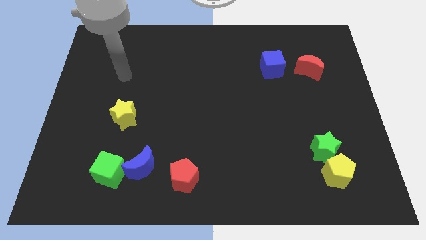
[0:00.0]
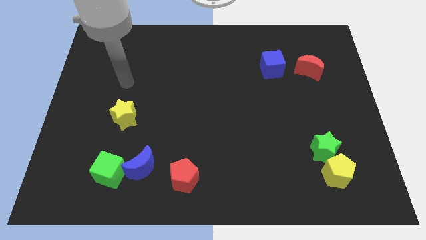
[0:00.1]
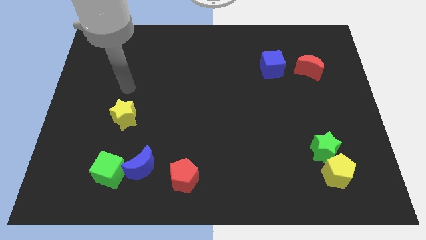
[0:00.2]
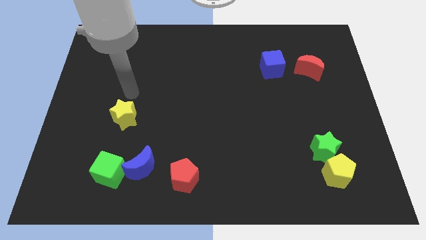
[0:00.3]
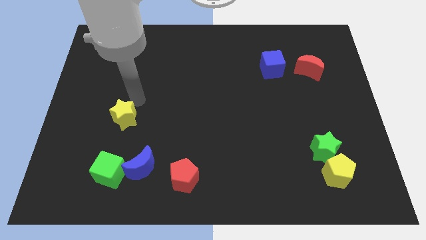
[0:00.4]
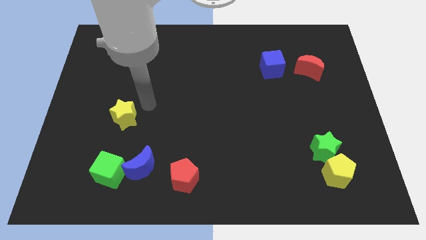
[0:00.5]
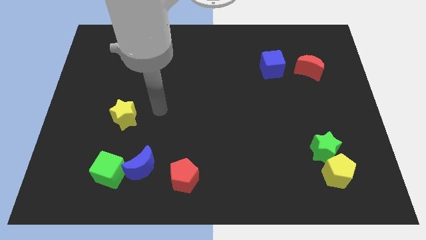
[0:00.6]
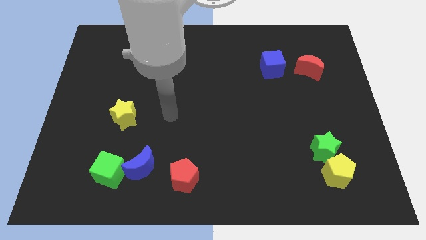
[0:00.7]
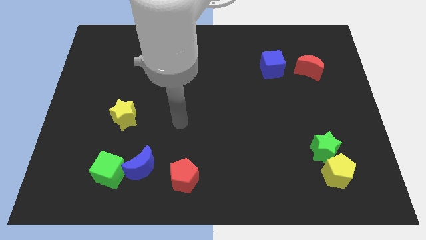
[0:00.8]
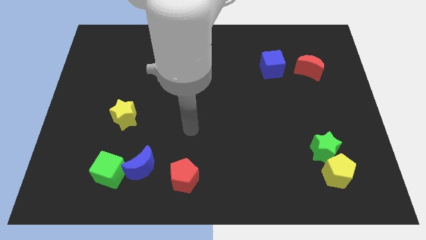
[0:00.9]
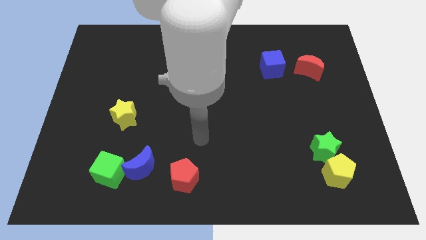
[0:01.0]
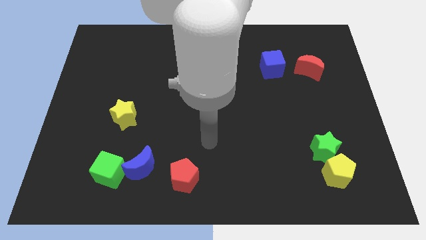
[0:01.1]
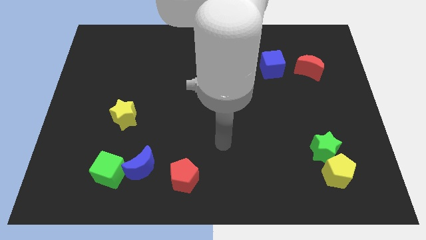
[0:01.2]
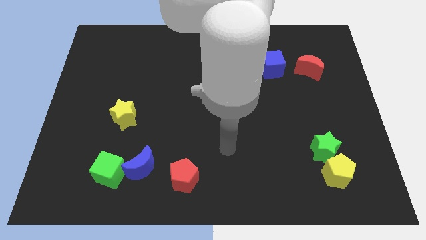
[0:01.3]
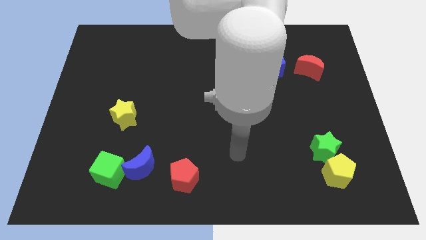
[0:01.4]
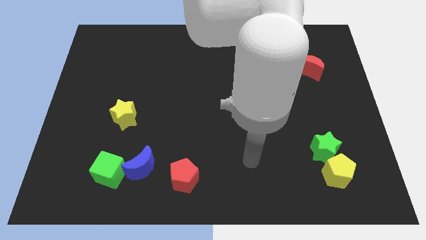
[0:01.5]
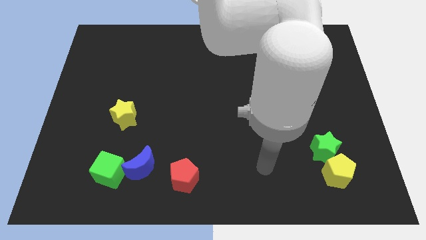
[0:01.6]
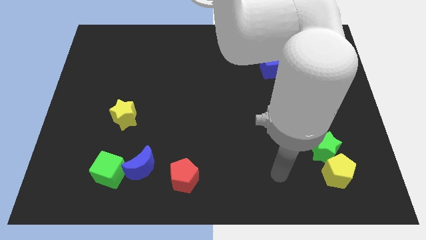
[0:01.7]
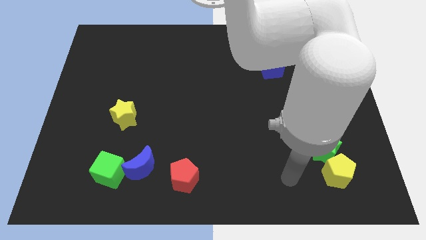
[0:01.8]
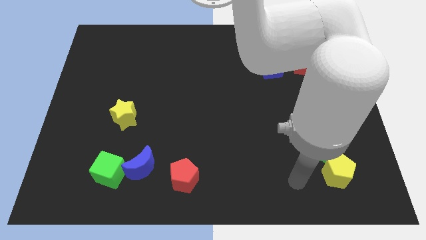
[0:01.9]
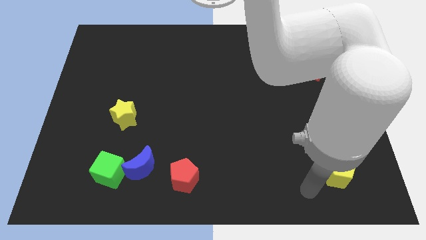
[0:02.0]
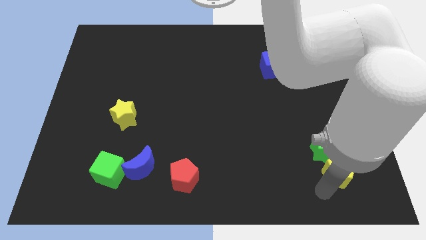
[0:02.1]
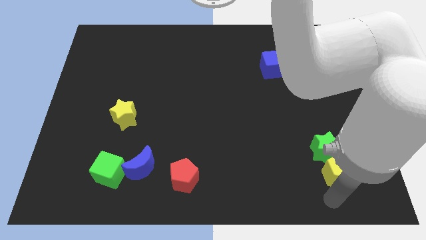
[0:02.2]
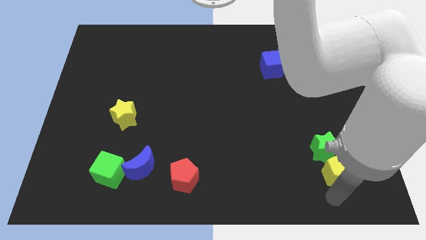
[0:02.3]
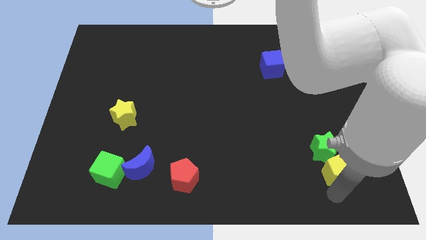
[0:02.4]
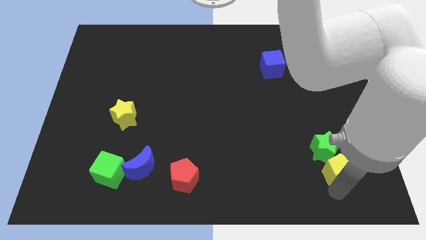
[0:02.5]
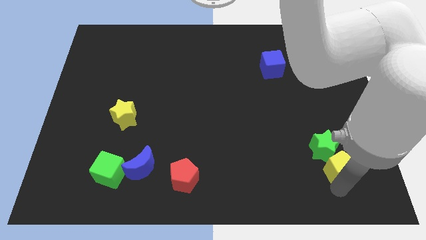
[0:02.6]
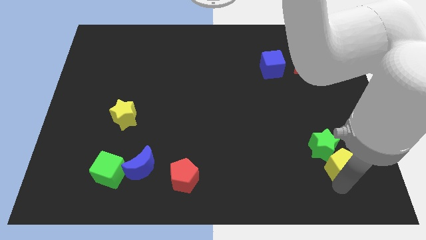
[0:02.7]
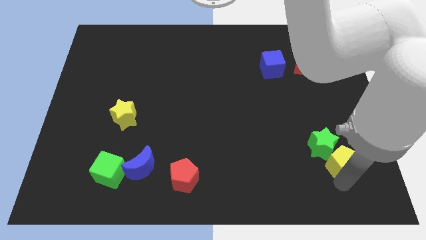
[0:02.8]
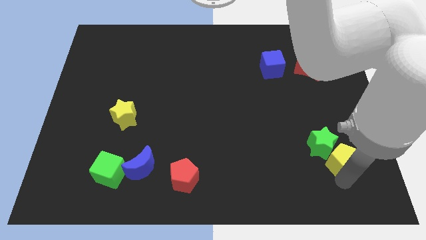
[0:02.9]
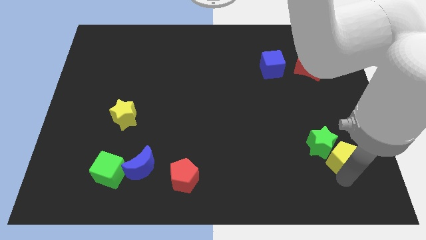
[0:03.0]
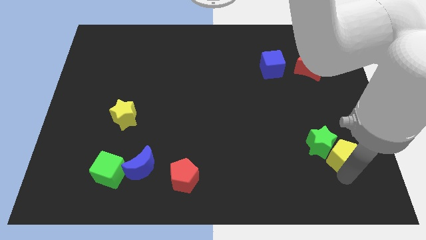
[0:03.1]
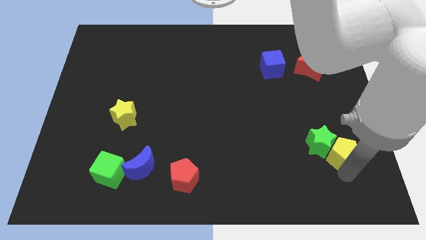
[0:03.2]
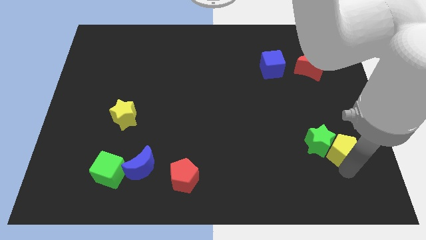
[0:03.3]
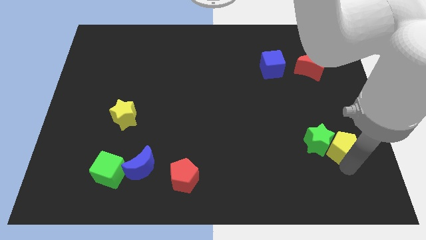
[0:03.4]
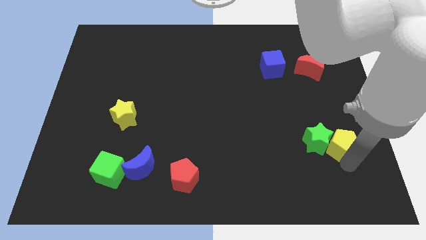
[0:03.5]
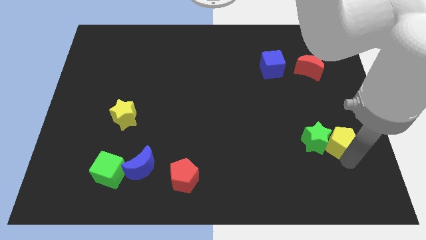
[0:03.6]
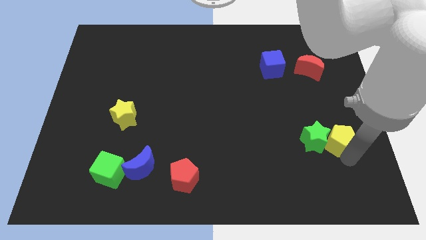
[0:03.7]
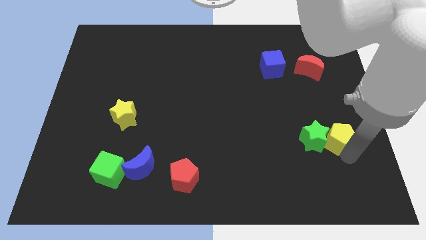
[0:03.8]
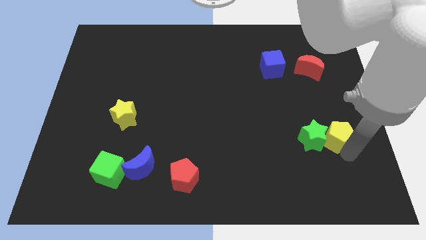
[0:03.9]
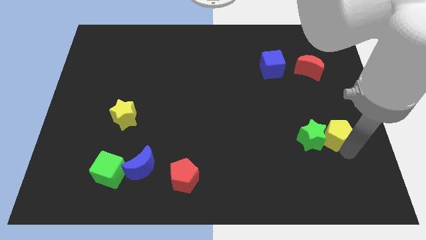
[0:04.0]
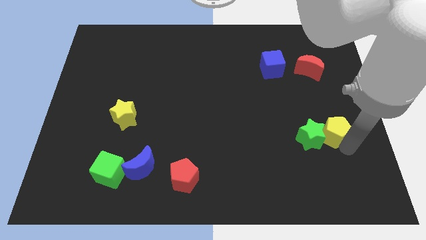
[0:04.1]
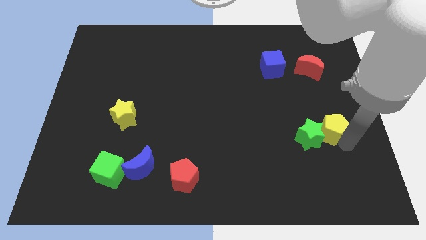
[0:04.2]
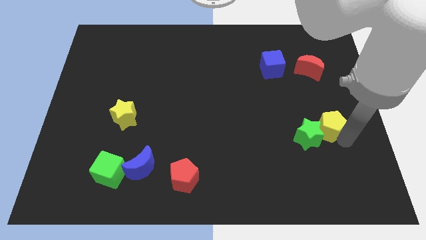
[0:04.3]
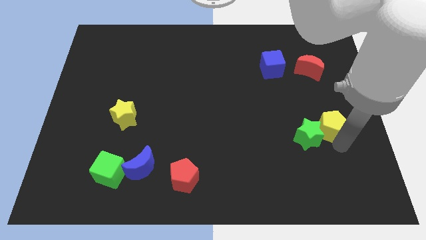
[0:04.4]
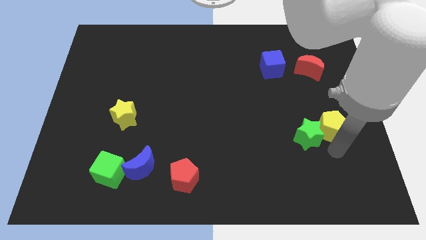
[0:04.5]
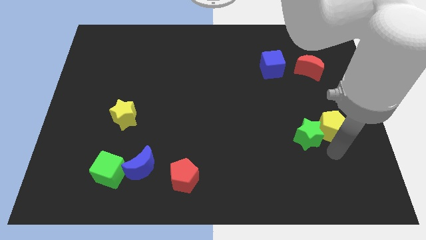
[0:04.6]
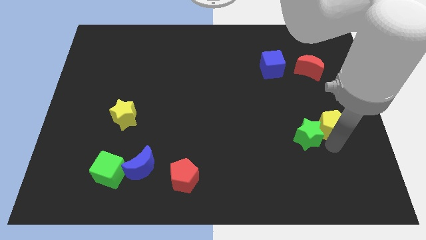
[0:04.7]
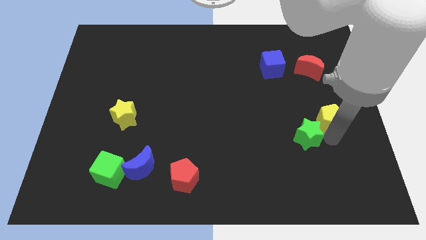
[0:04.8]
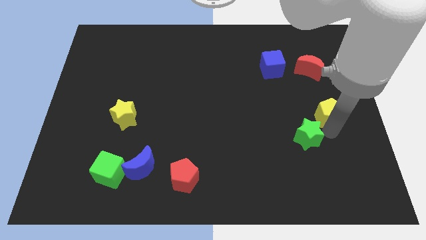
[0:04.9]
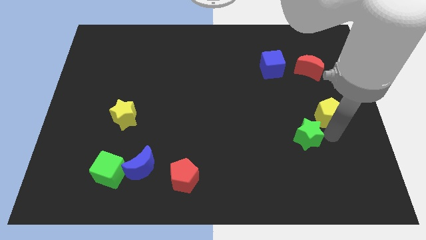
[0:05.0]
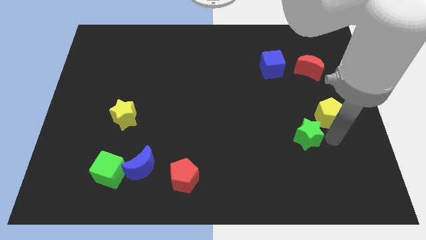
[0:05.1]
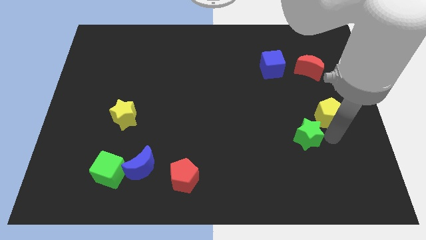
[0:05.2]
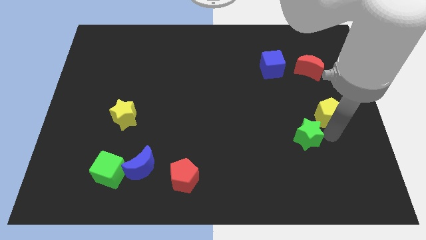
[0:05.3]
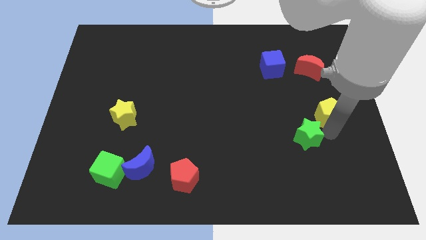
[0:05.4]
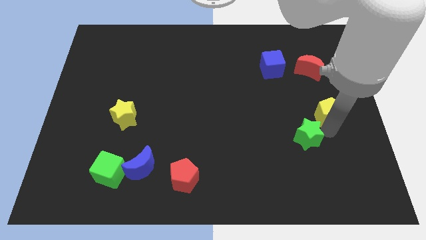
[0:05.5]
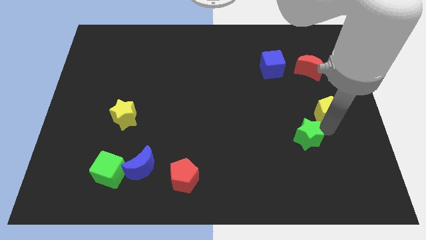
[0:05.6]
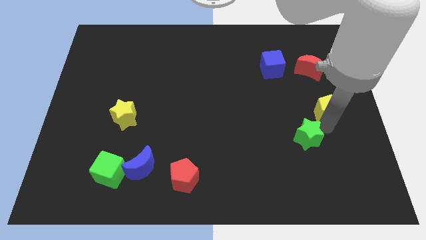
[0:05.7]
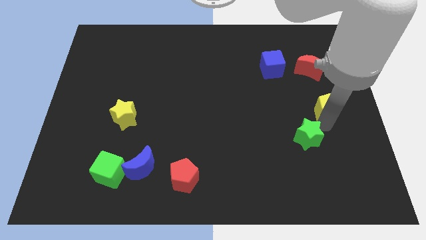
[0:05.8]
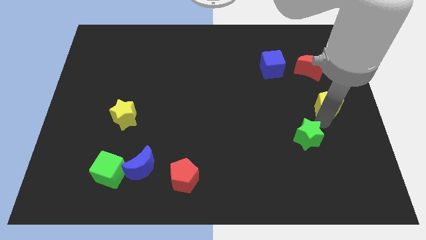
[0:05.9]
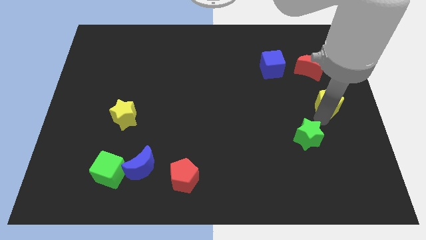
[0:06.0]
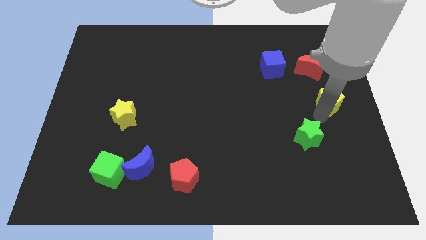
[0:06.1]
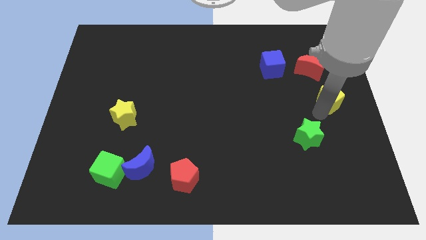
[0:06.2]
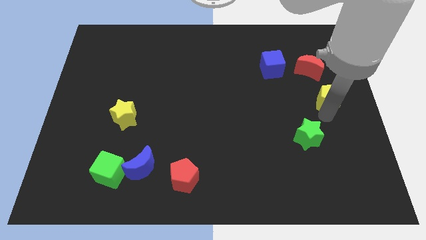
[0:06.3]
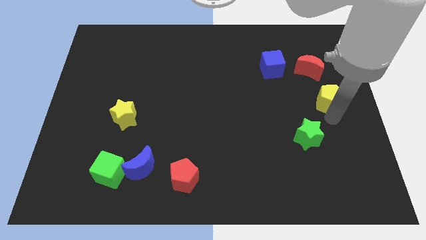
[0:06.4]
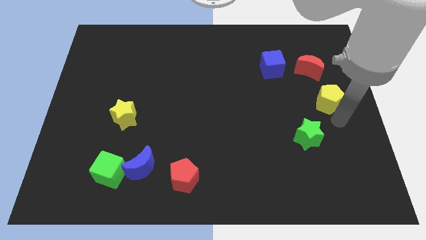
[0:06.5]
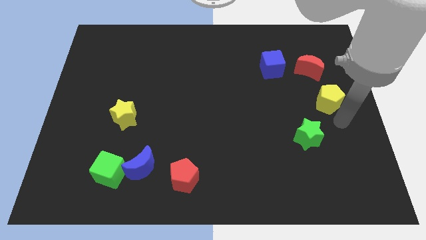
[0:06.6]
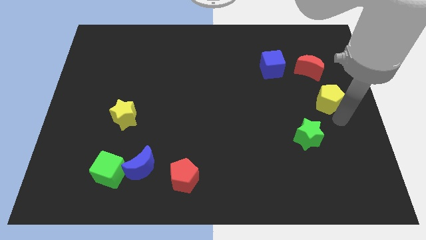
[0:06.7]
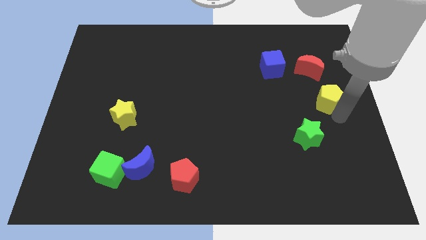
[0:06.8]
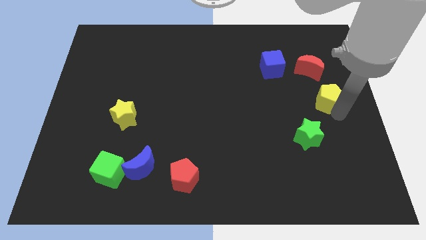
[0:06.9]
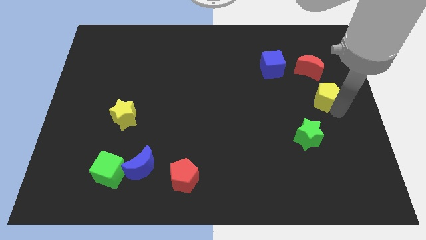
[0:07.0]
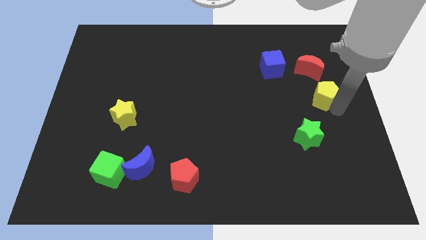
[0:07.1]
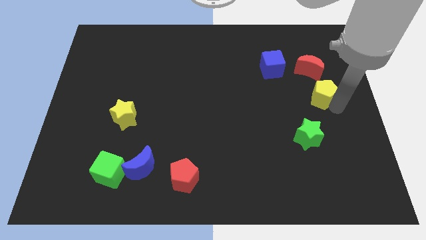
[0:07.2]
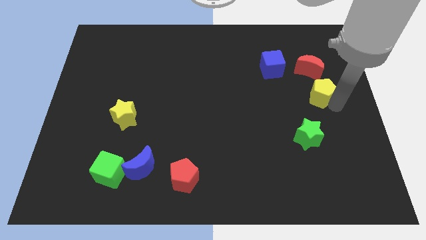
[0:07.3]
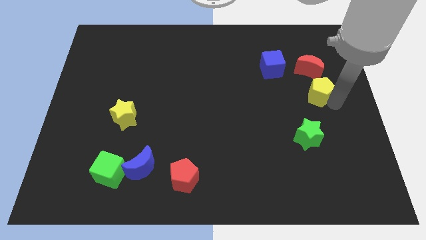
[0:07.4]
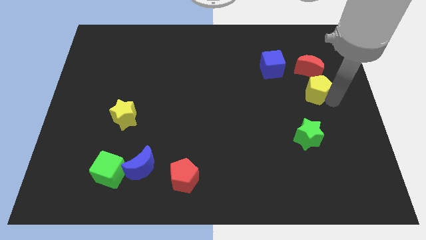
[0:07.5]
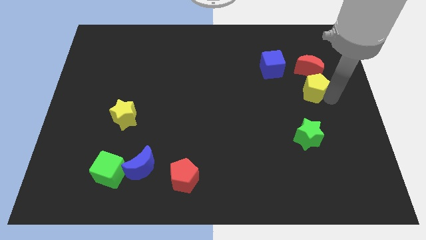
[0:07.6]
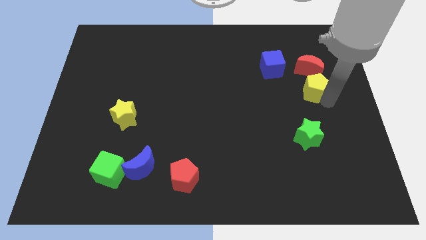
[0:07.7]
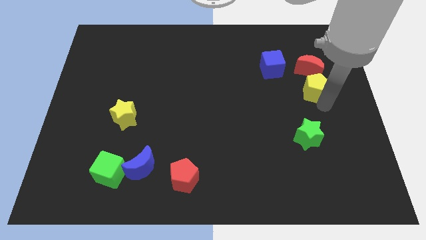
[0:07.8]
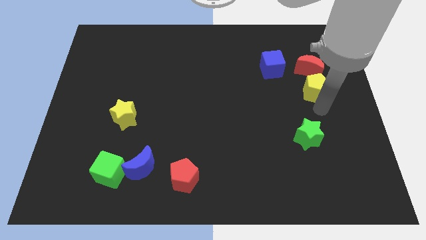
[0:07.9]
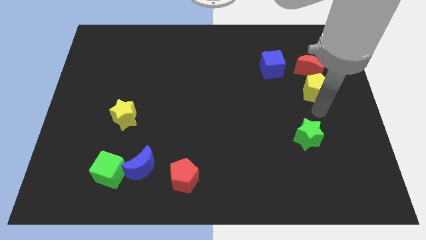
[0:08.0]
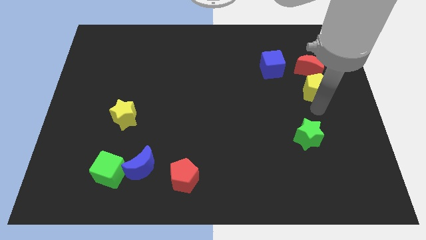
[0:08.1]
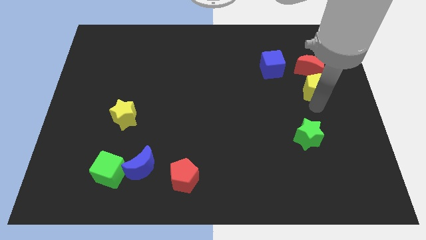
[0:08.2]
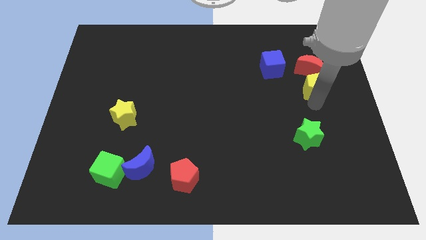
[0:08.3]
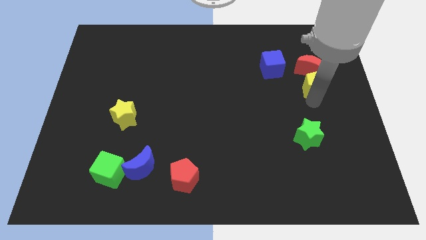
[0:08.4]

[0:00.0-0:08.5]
slide the yellow pentagon towards the red moon
